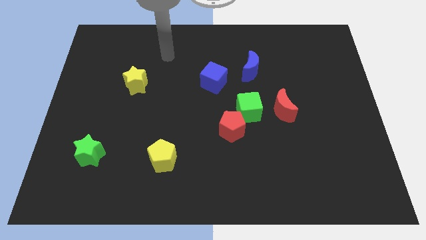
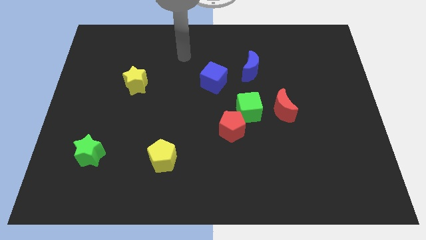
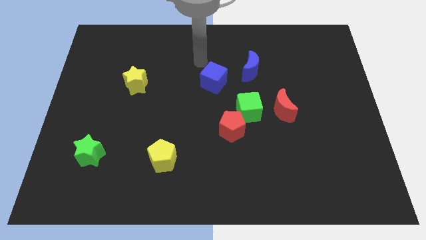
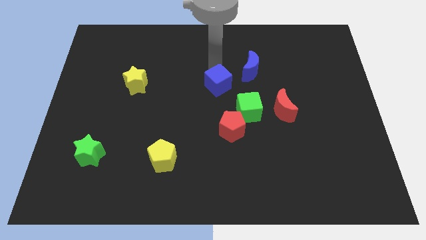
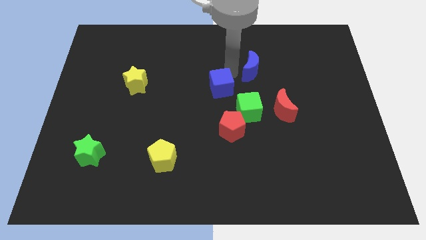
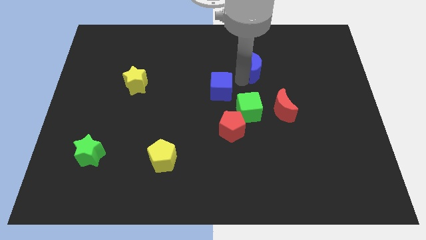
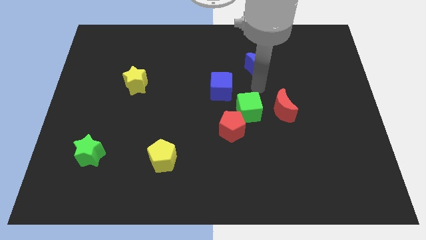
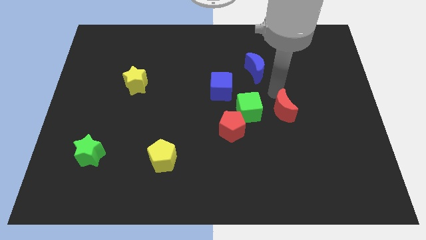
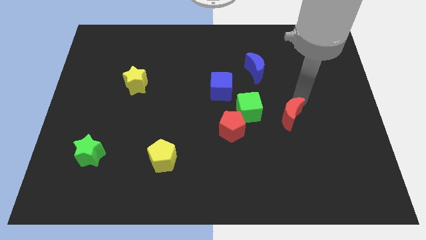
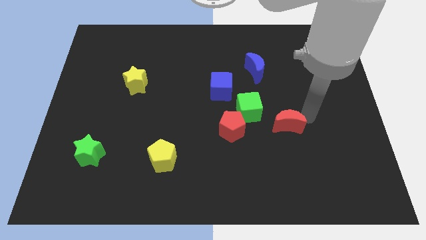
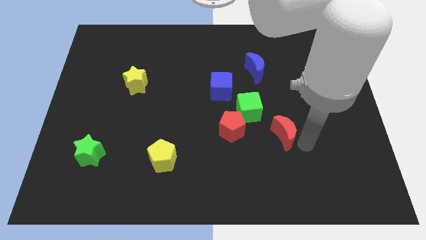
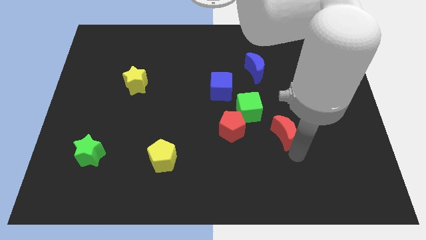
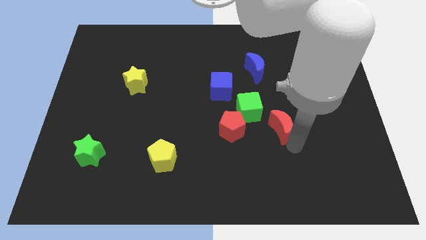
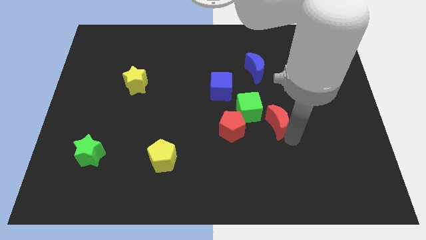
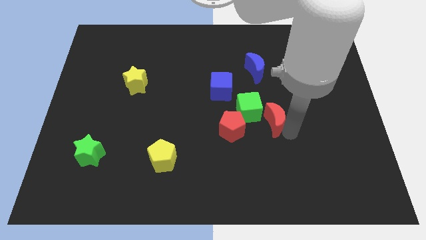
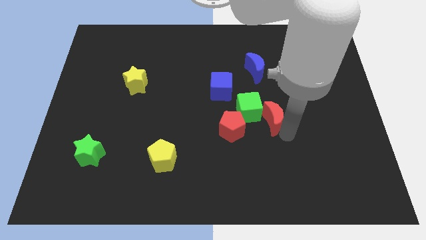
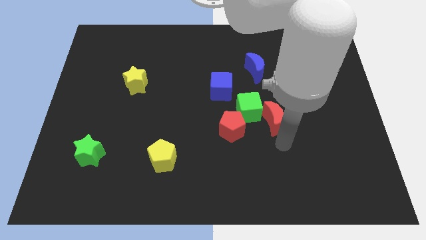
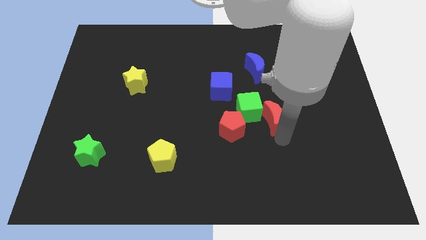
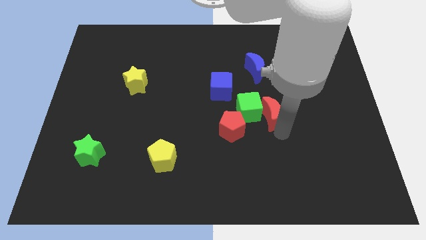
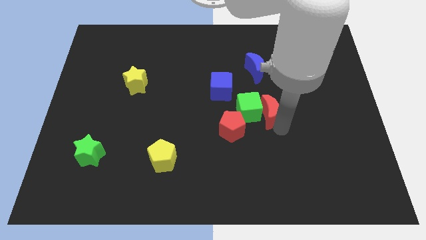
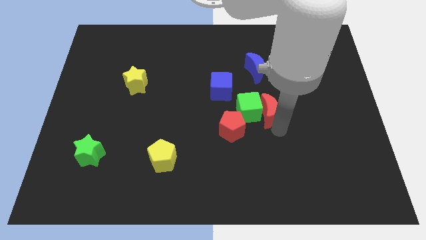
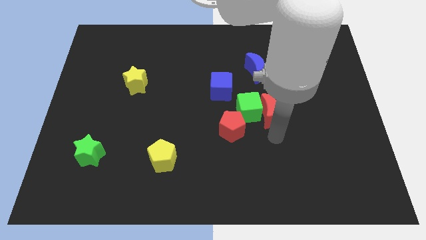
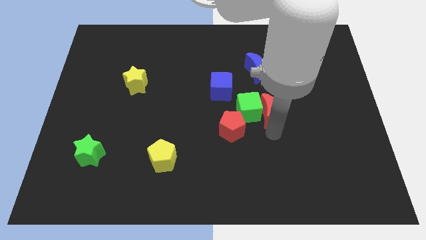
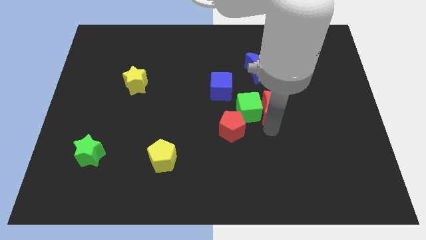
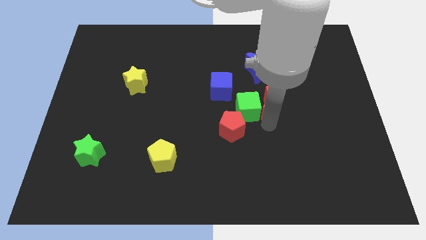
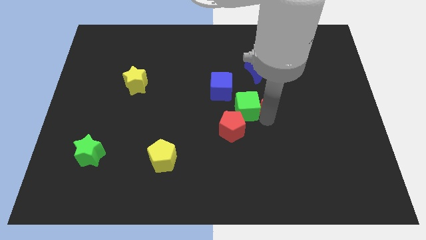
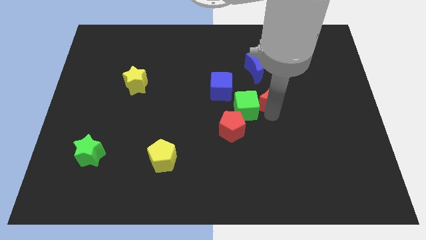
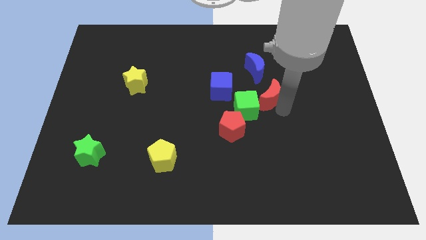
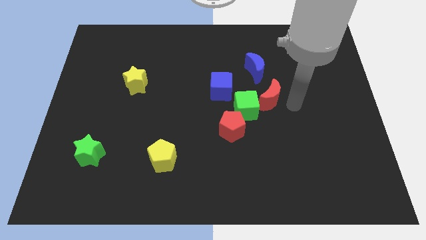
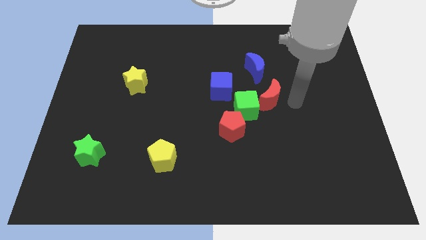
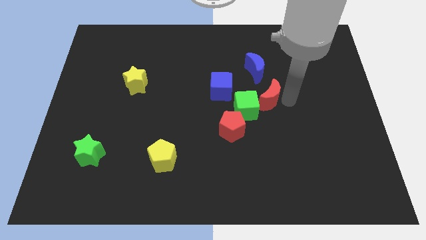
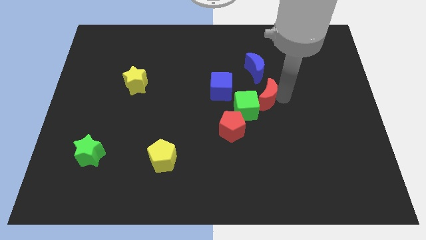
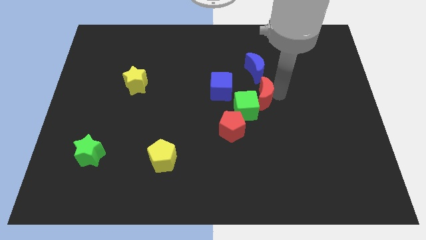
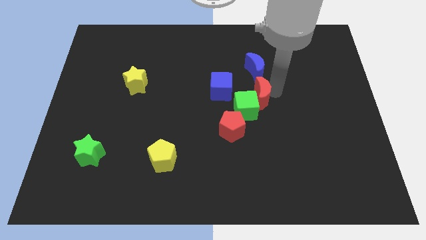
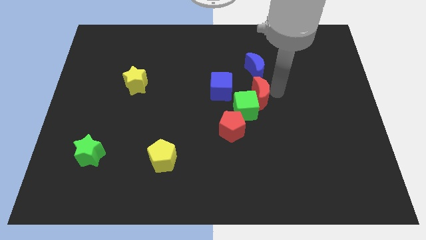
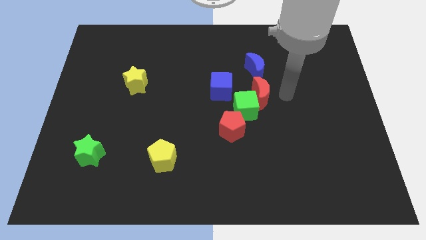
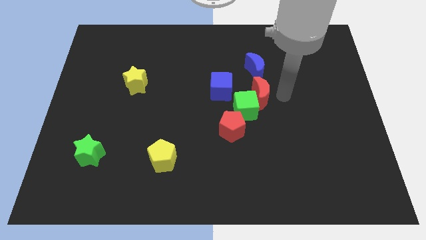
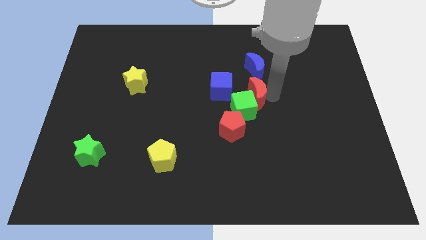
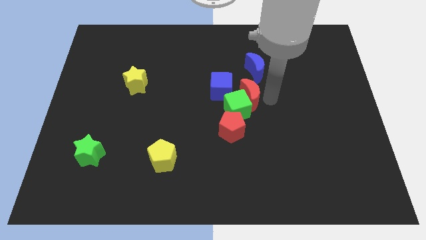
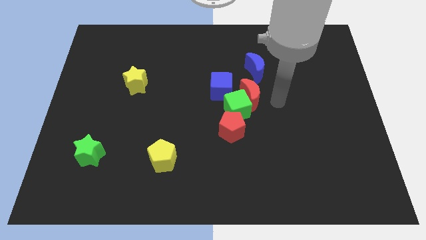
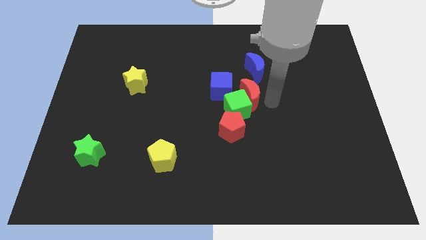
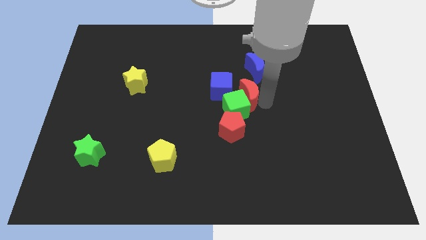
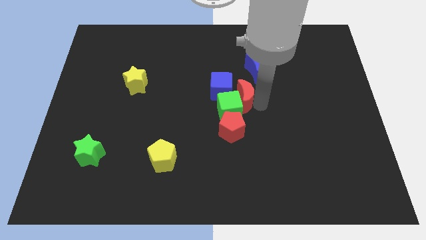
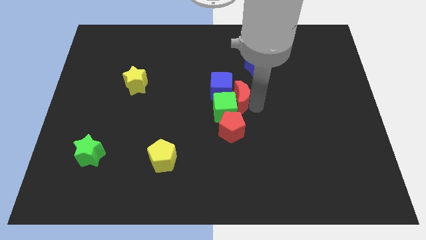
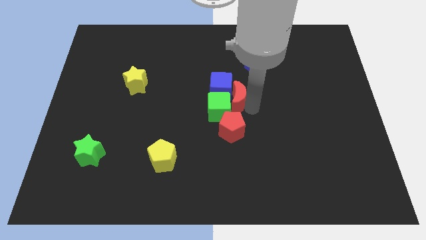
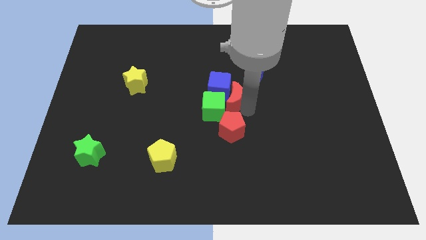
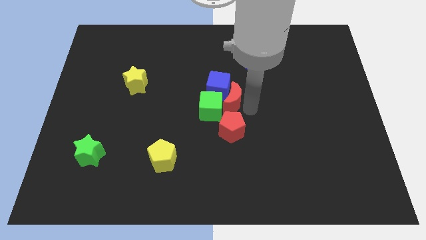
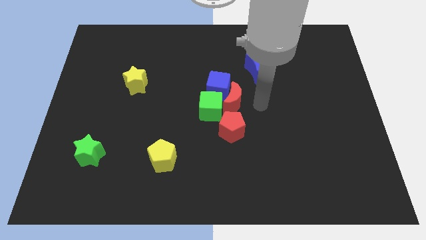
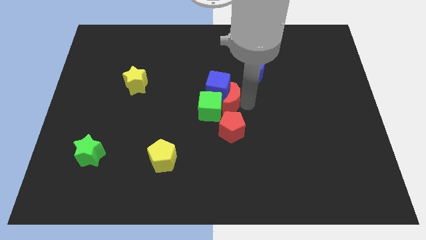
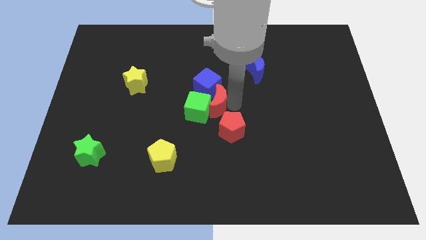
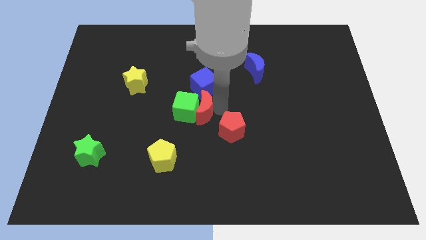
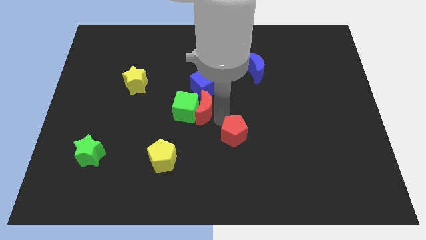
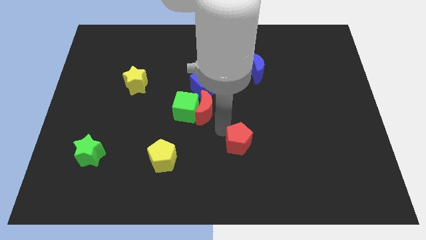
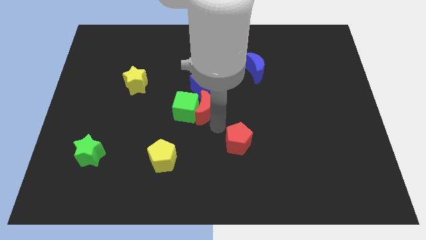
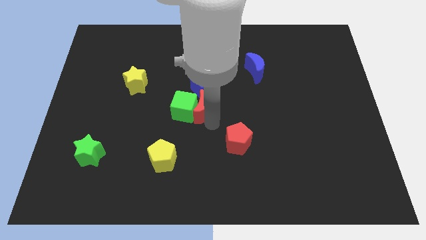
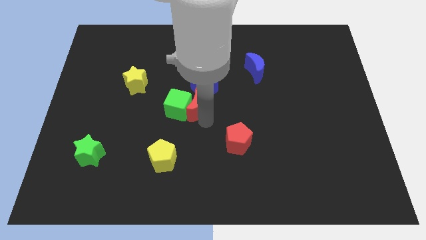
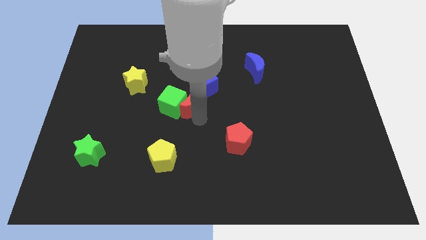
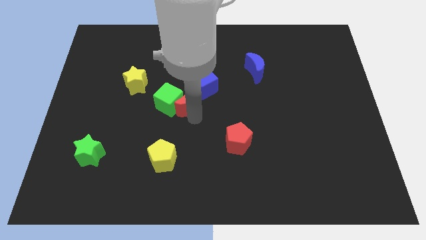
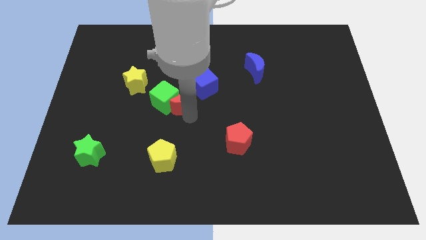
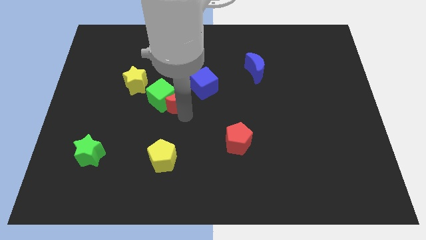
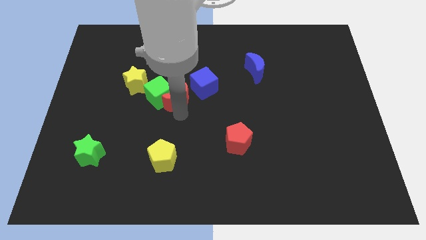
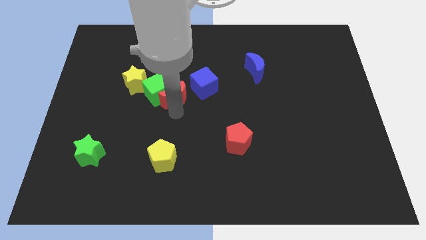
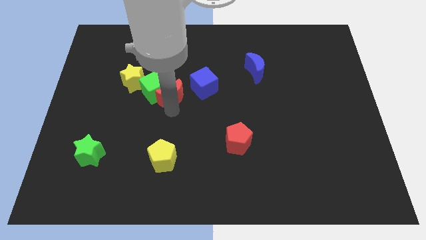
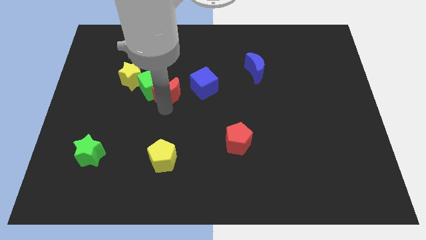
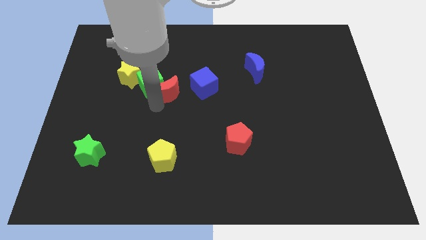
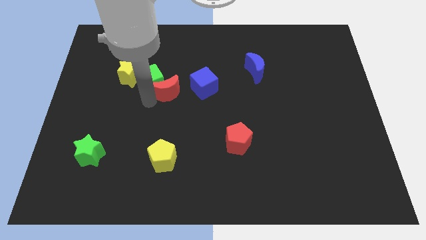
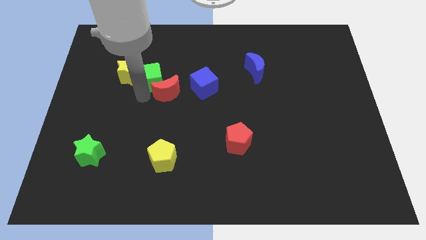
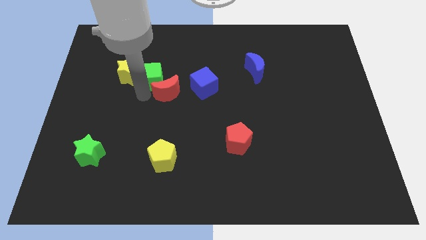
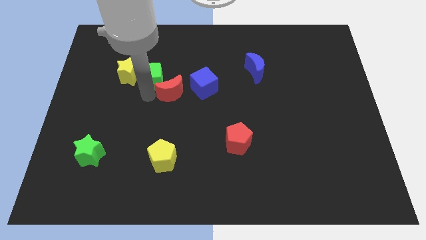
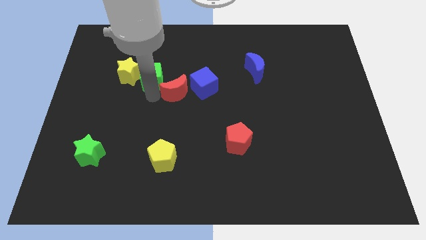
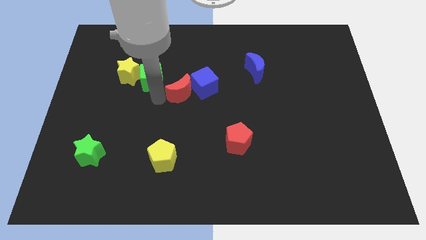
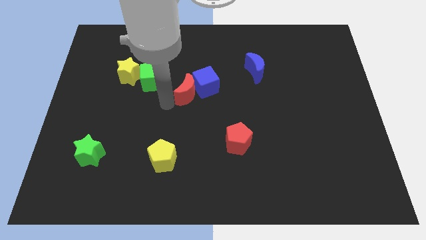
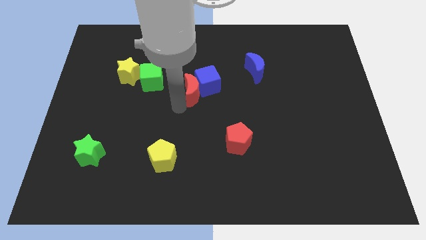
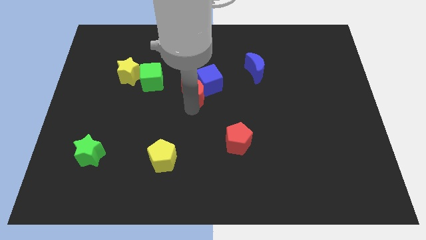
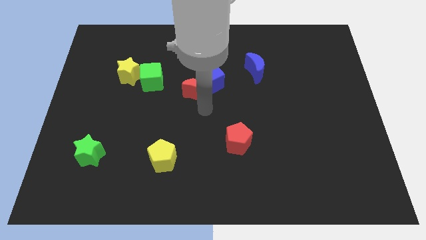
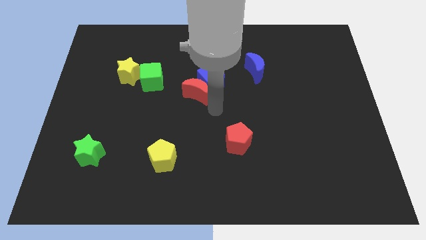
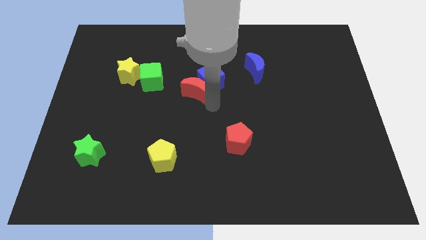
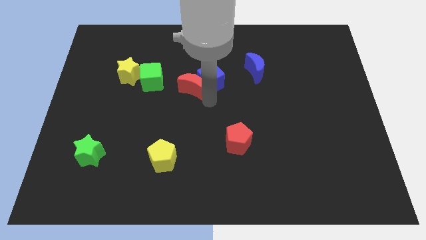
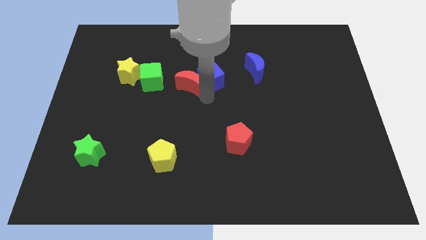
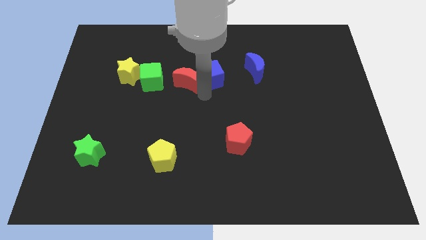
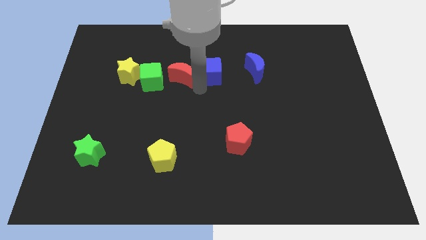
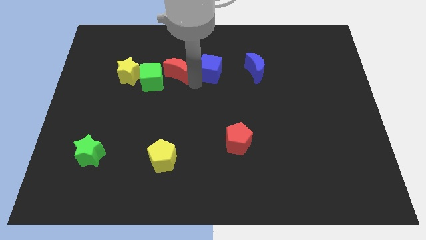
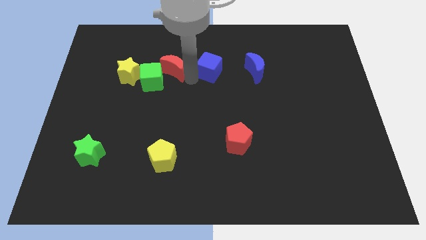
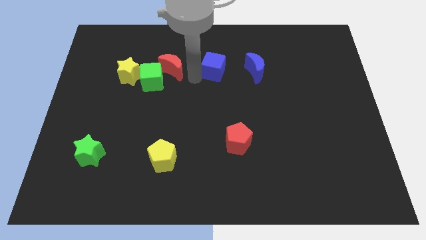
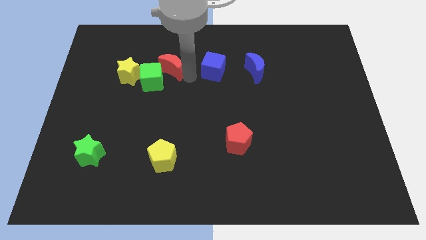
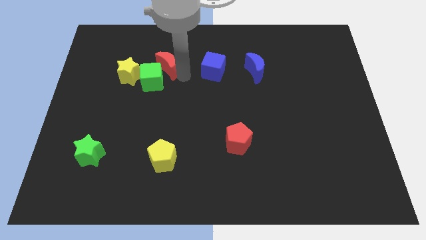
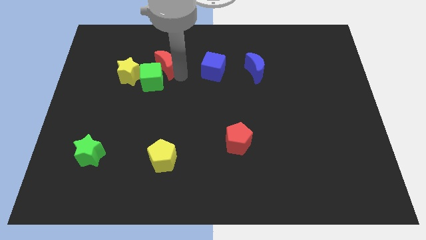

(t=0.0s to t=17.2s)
push the red moon to the top right side of the yellow star
